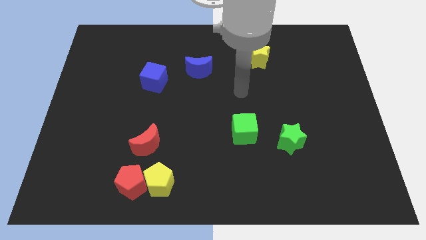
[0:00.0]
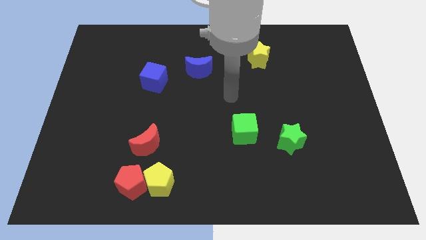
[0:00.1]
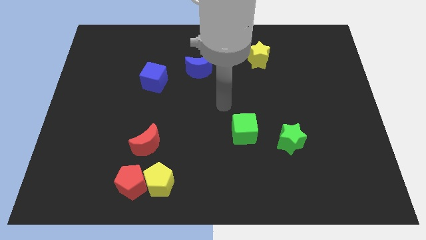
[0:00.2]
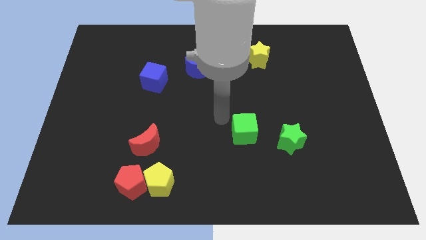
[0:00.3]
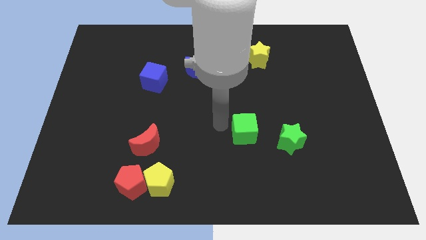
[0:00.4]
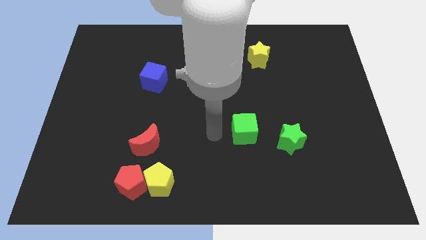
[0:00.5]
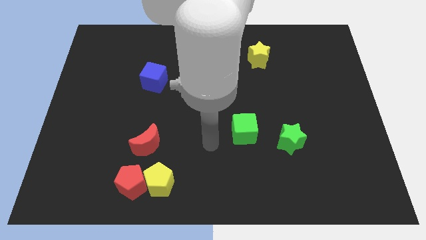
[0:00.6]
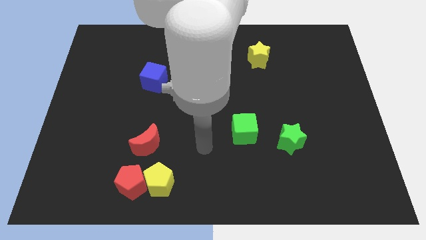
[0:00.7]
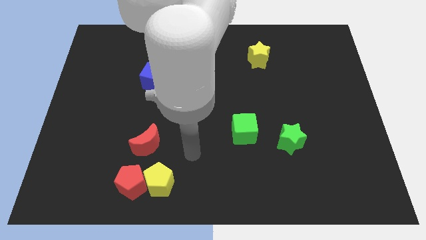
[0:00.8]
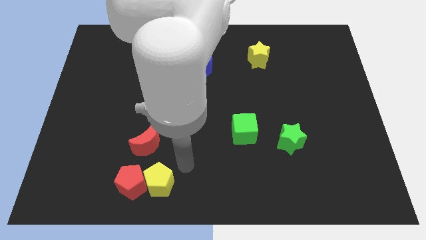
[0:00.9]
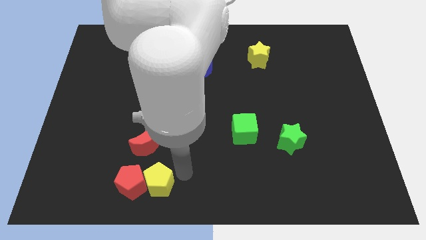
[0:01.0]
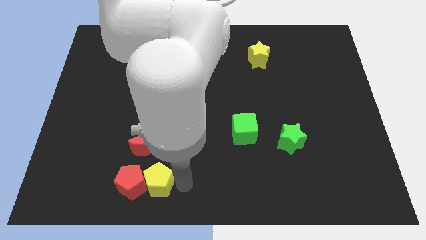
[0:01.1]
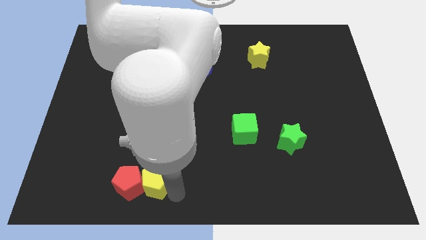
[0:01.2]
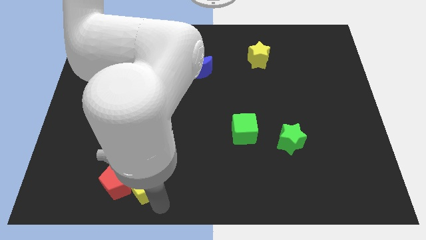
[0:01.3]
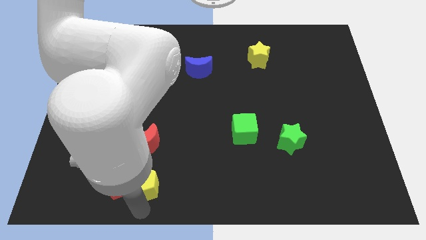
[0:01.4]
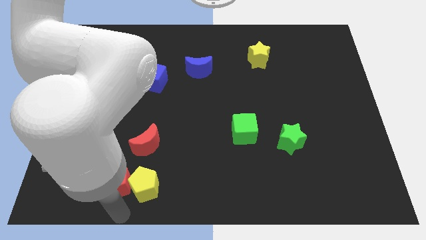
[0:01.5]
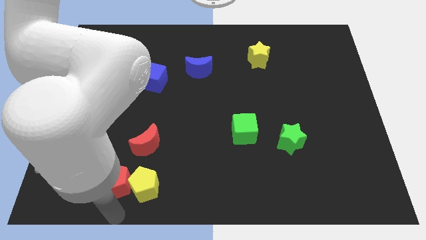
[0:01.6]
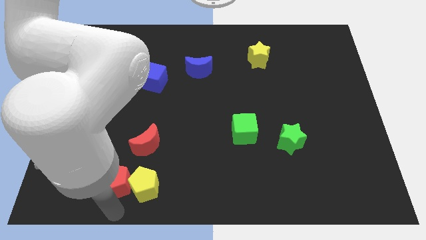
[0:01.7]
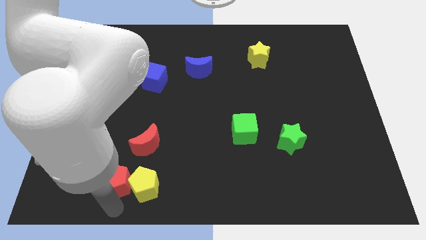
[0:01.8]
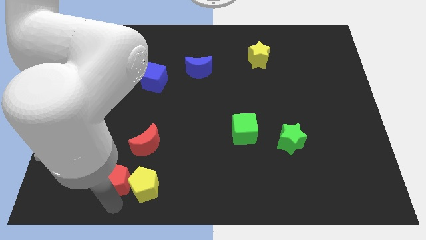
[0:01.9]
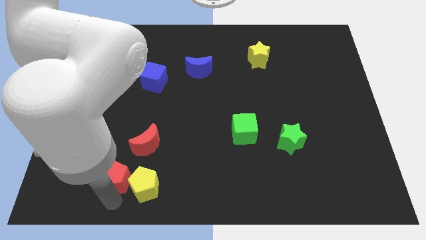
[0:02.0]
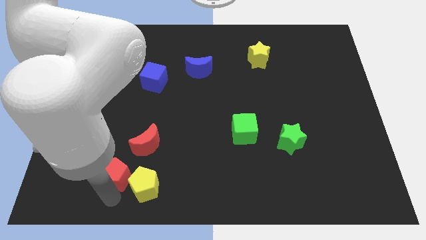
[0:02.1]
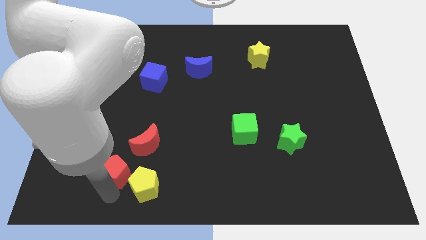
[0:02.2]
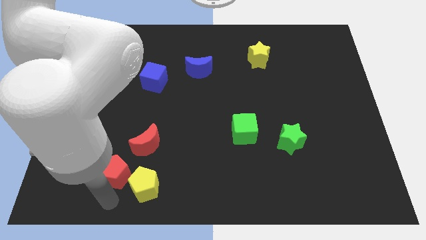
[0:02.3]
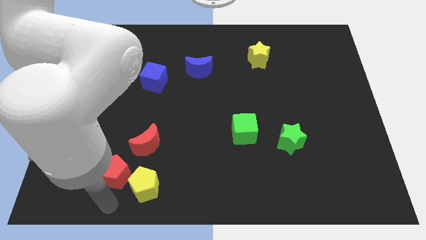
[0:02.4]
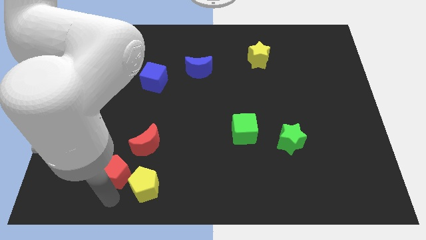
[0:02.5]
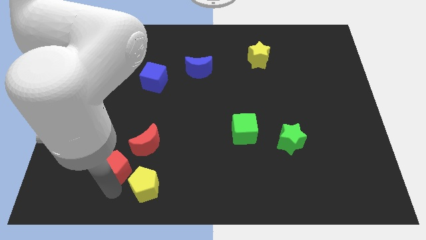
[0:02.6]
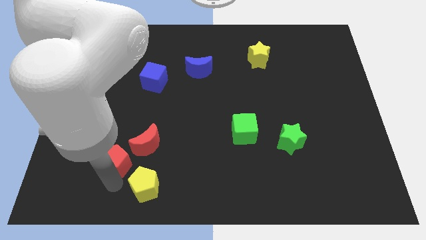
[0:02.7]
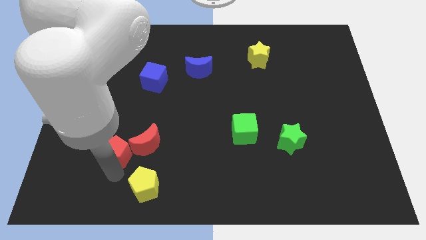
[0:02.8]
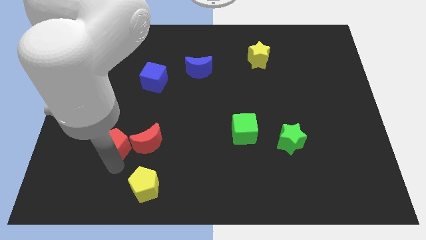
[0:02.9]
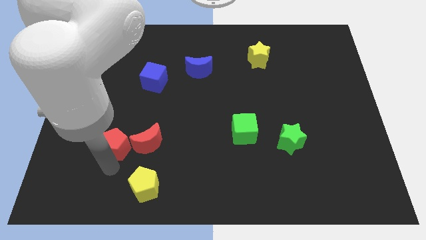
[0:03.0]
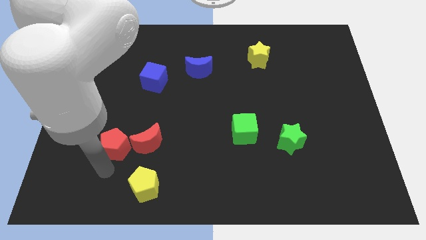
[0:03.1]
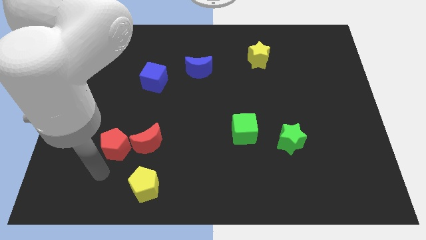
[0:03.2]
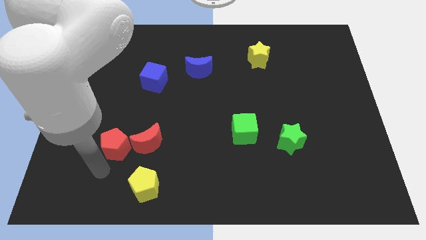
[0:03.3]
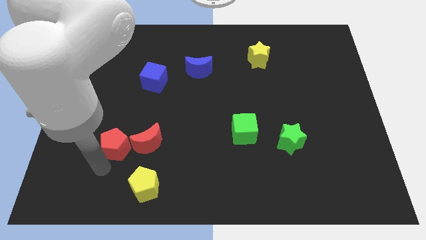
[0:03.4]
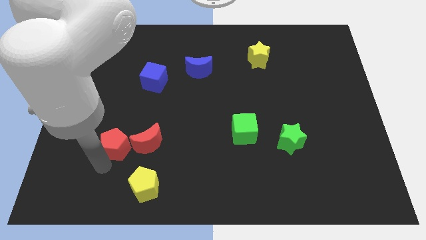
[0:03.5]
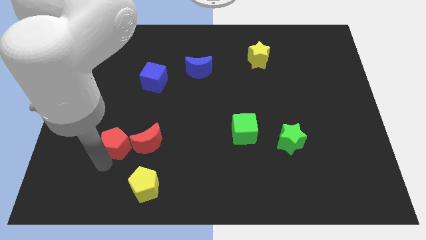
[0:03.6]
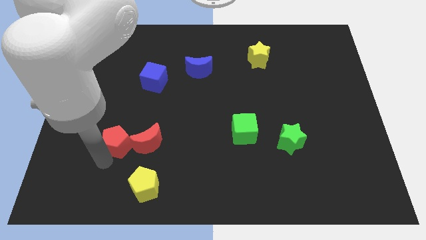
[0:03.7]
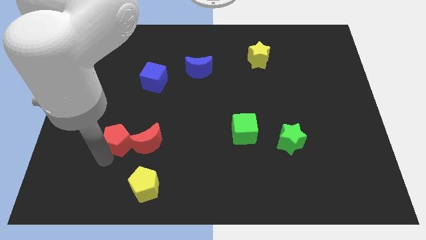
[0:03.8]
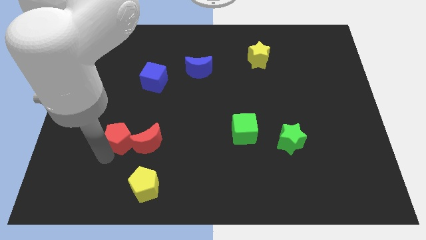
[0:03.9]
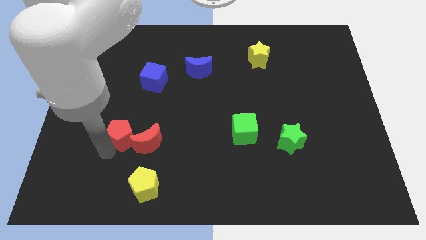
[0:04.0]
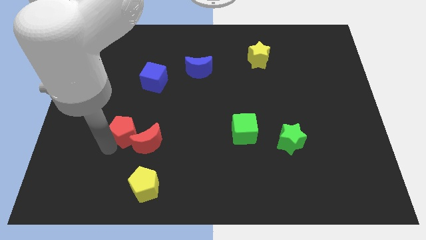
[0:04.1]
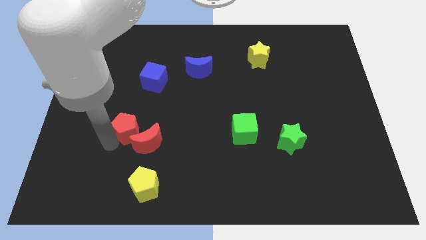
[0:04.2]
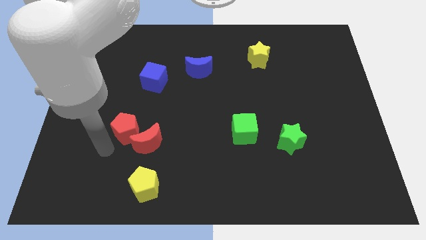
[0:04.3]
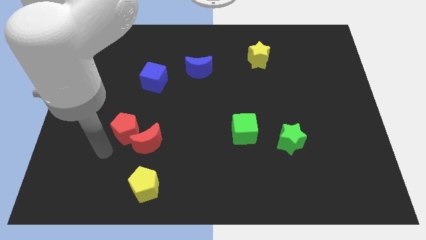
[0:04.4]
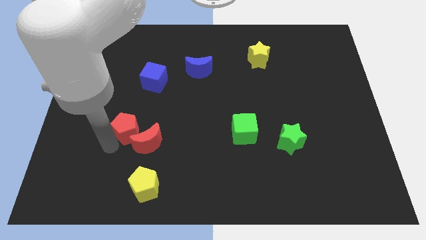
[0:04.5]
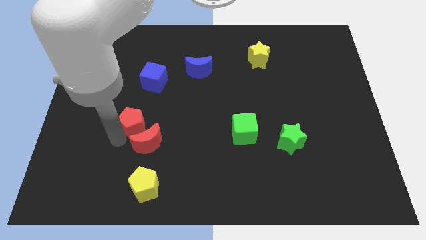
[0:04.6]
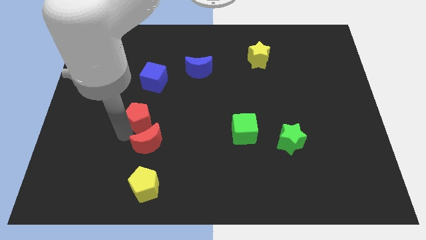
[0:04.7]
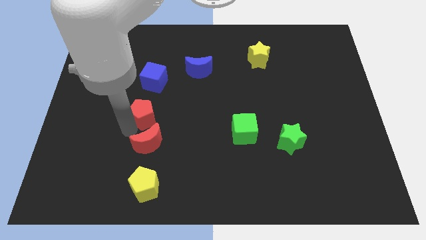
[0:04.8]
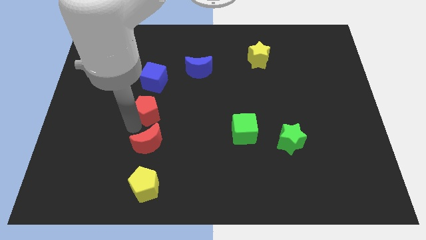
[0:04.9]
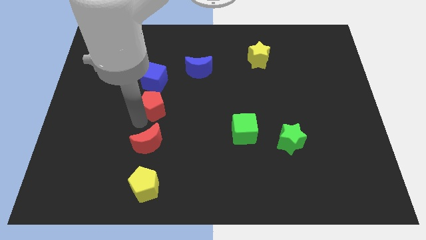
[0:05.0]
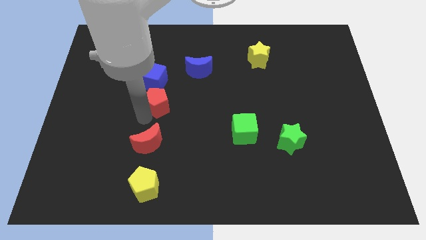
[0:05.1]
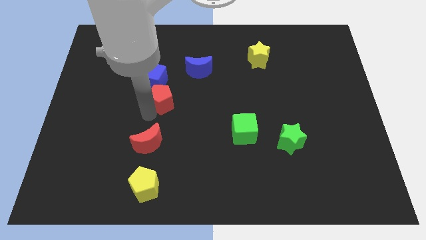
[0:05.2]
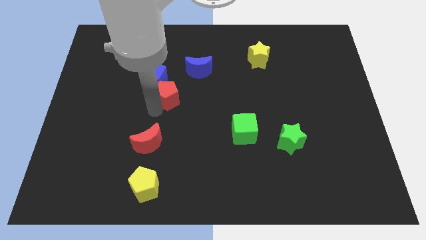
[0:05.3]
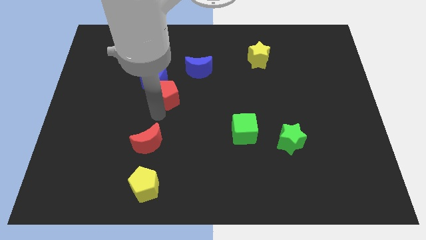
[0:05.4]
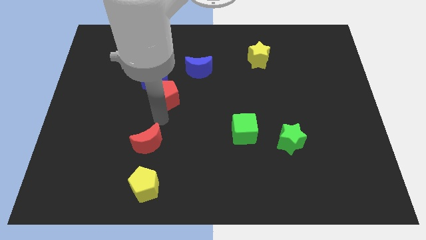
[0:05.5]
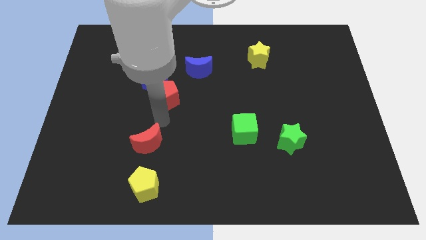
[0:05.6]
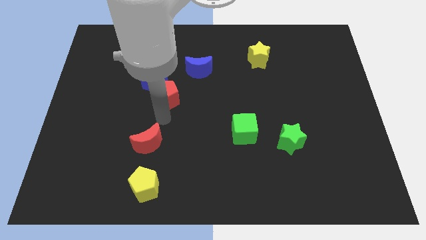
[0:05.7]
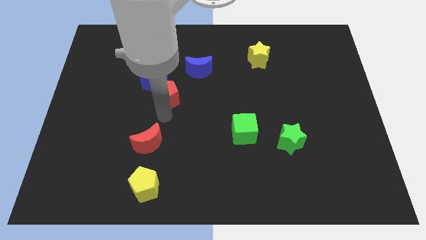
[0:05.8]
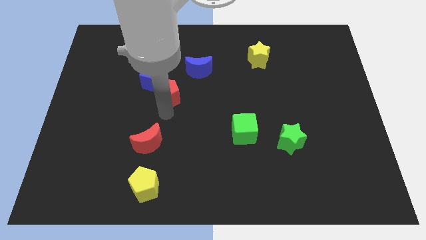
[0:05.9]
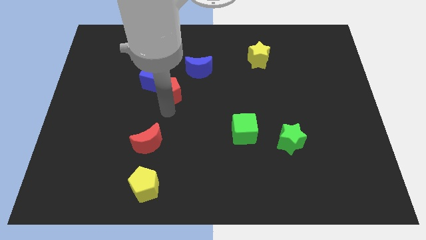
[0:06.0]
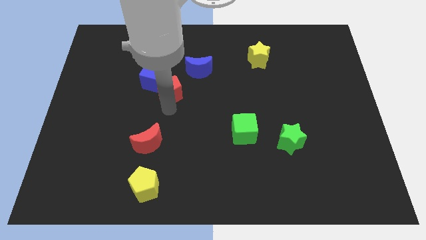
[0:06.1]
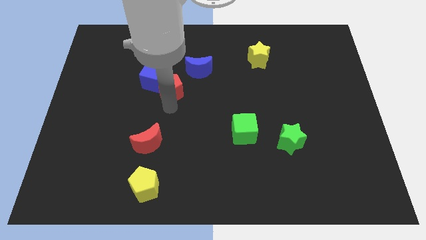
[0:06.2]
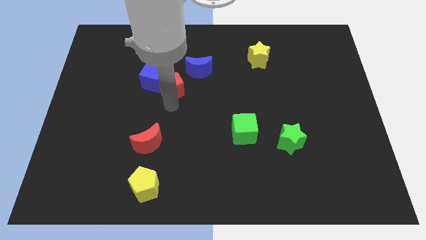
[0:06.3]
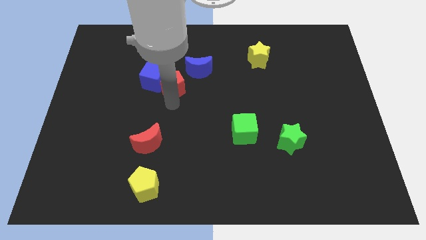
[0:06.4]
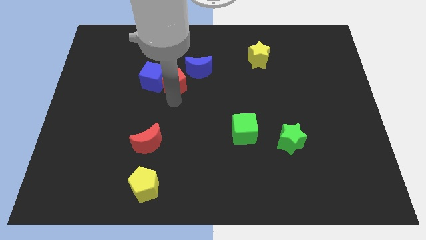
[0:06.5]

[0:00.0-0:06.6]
move the red pentagon diagonally up and to the right of the blue cube
